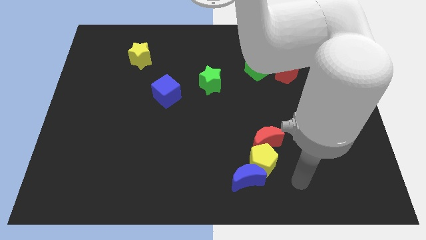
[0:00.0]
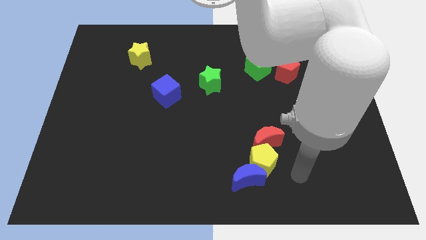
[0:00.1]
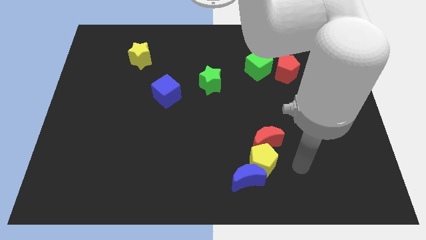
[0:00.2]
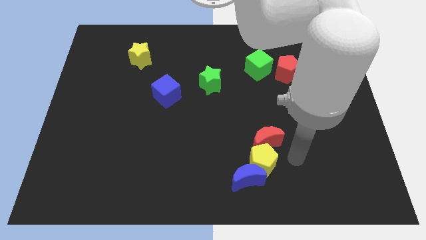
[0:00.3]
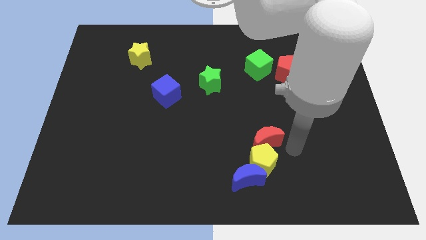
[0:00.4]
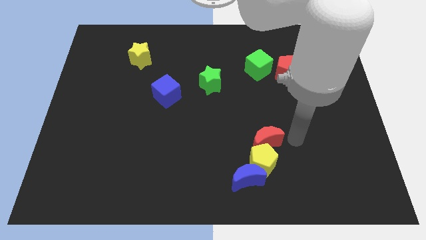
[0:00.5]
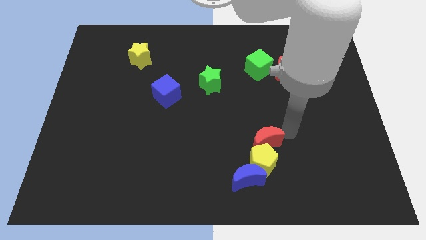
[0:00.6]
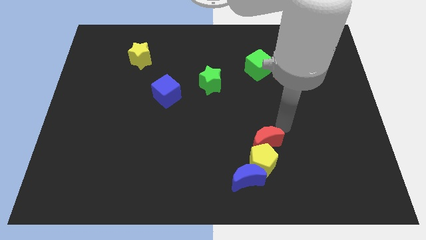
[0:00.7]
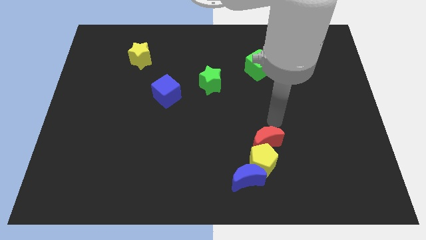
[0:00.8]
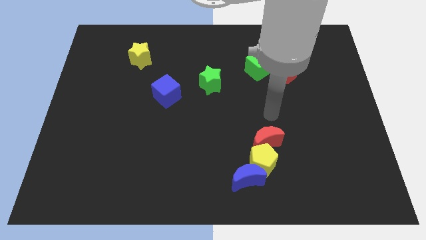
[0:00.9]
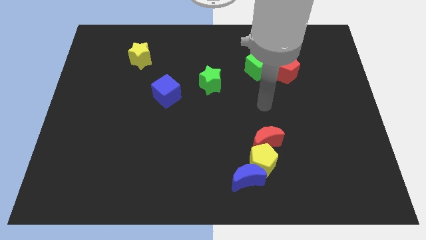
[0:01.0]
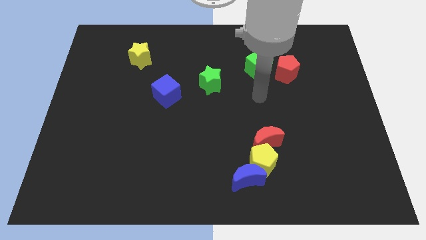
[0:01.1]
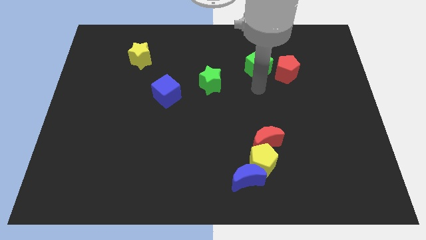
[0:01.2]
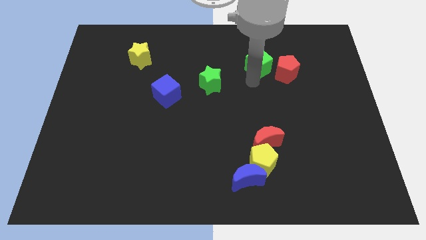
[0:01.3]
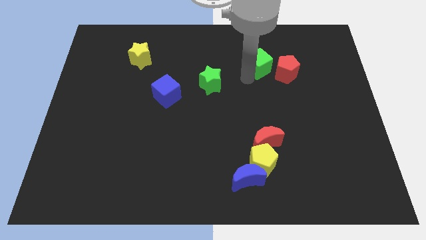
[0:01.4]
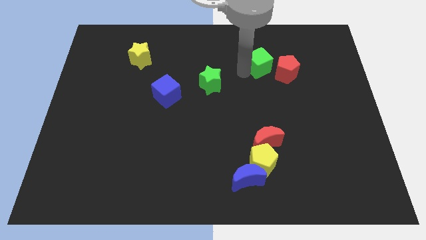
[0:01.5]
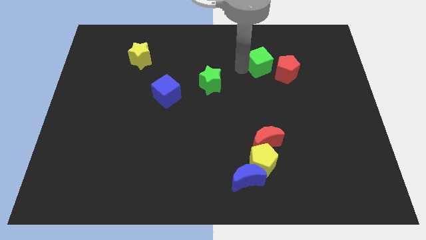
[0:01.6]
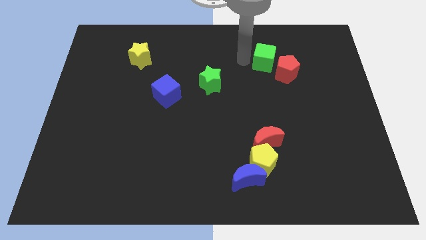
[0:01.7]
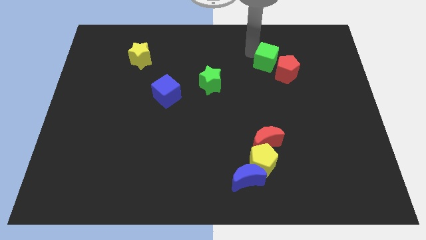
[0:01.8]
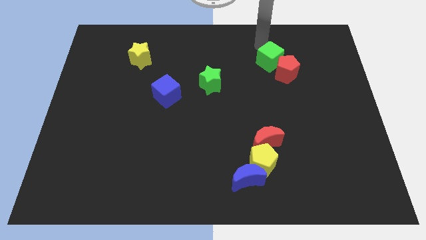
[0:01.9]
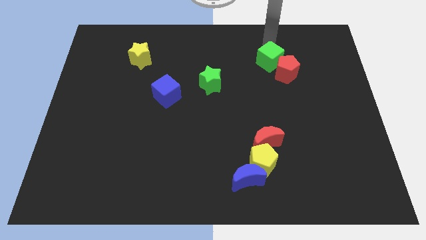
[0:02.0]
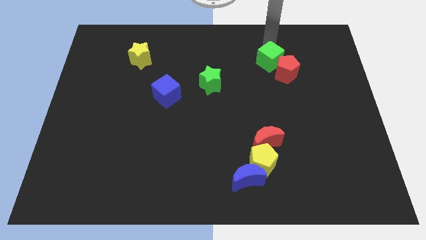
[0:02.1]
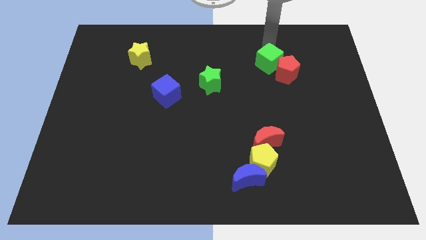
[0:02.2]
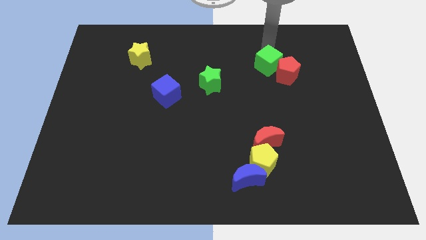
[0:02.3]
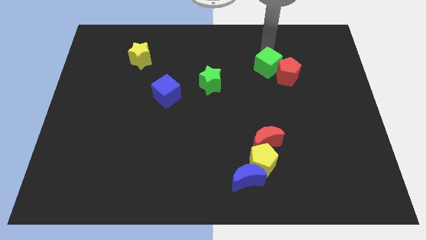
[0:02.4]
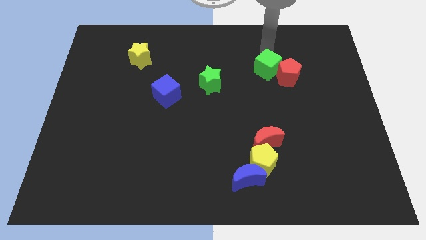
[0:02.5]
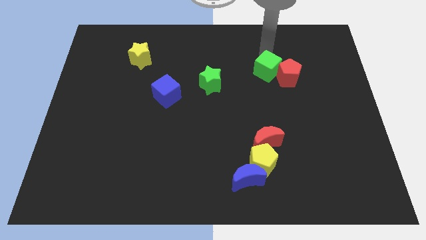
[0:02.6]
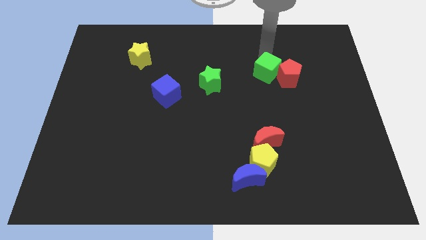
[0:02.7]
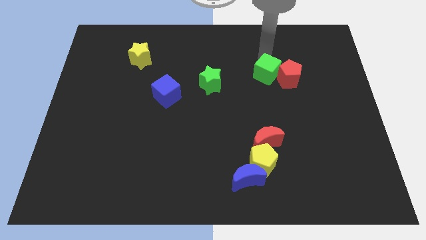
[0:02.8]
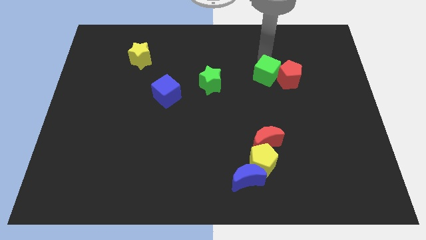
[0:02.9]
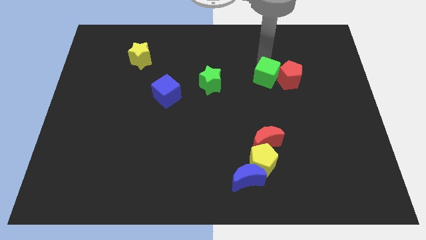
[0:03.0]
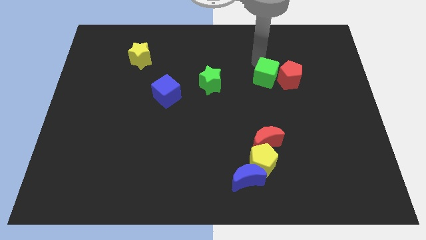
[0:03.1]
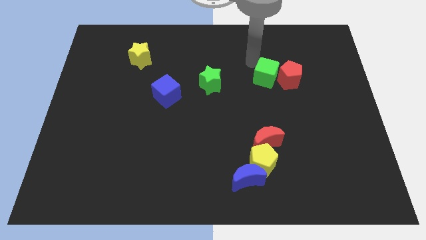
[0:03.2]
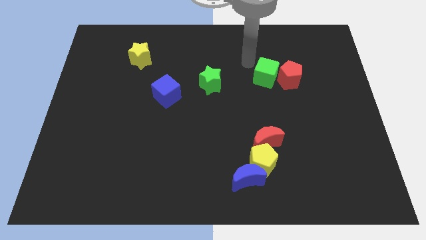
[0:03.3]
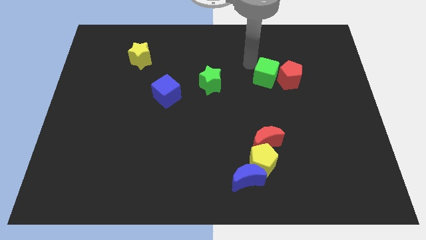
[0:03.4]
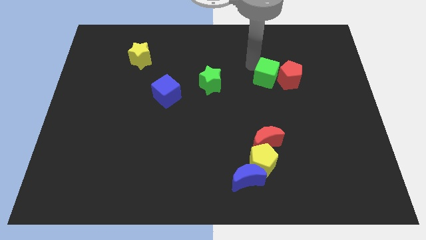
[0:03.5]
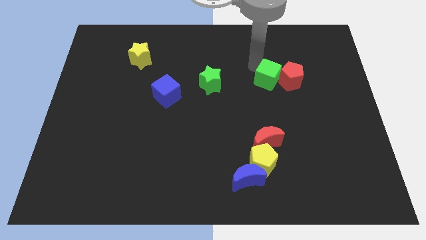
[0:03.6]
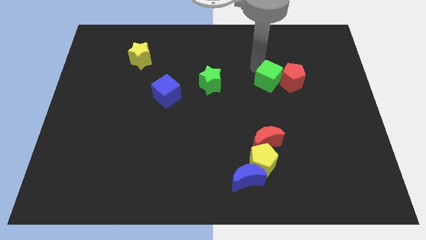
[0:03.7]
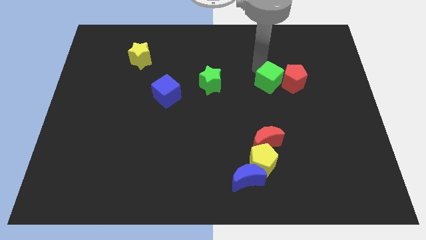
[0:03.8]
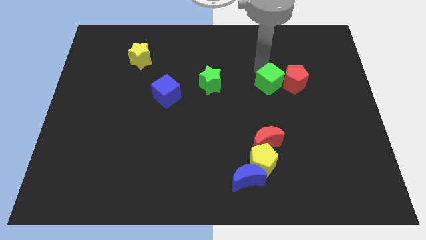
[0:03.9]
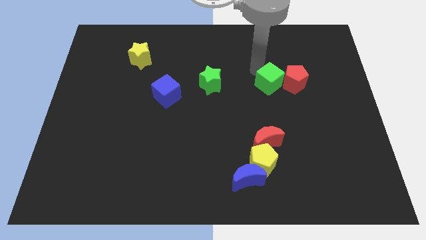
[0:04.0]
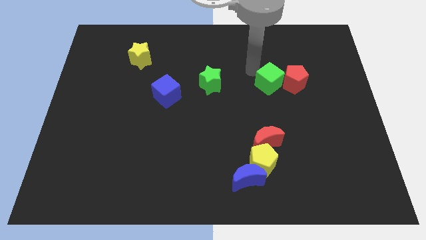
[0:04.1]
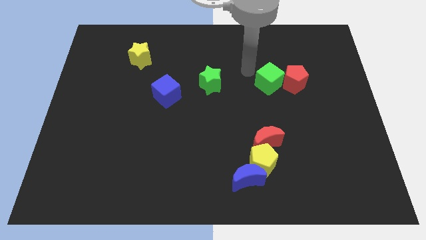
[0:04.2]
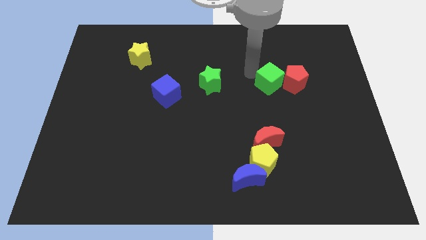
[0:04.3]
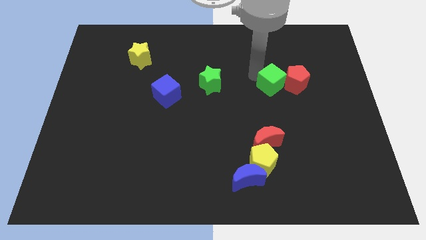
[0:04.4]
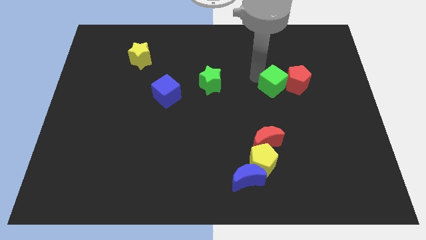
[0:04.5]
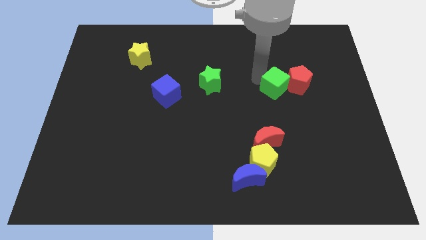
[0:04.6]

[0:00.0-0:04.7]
slightly move the green cube downwards and then right

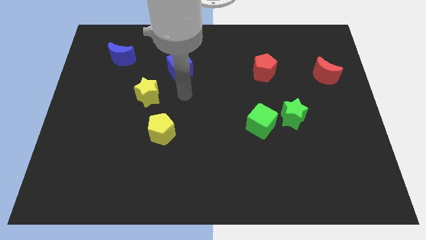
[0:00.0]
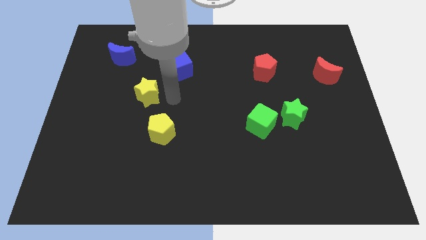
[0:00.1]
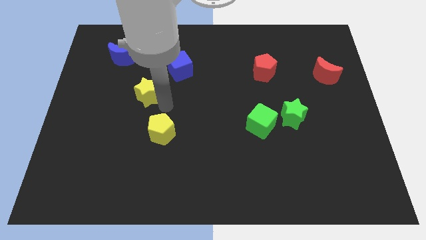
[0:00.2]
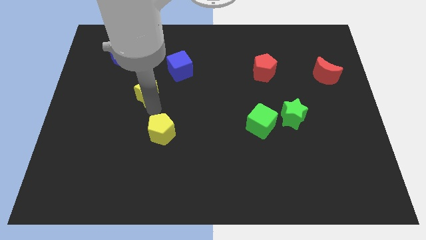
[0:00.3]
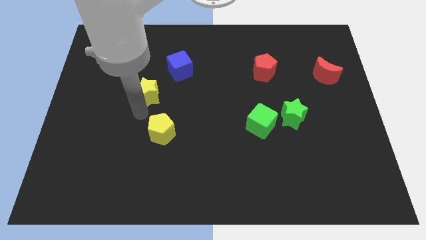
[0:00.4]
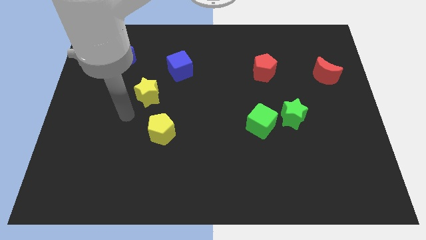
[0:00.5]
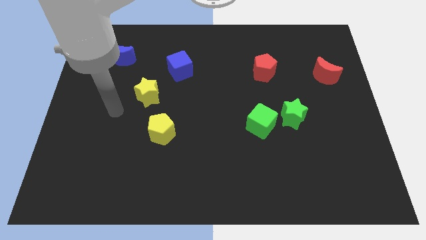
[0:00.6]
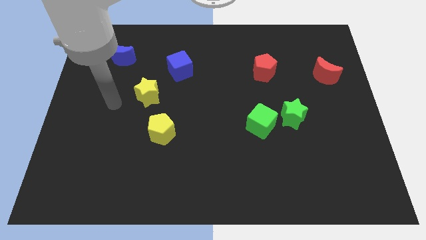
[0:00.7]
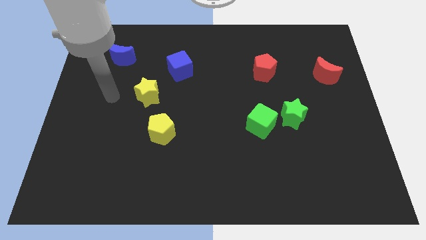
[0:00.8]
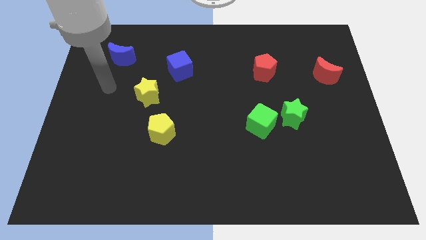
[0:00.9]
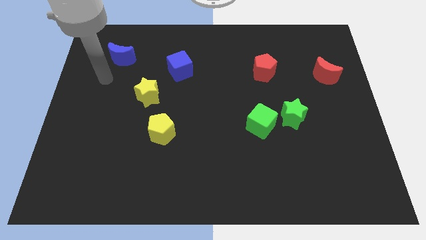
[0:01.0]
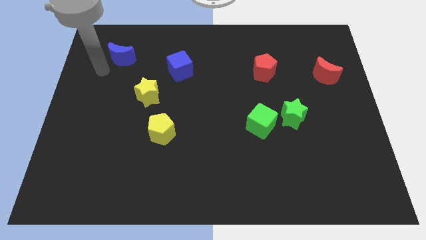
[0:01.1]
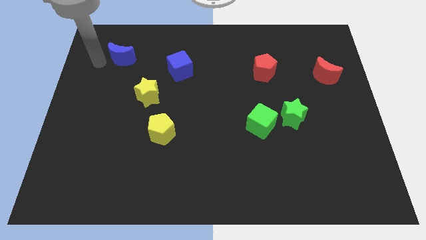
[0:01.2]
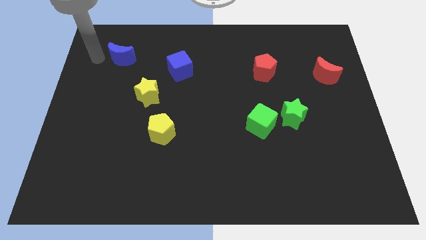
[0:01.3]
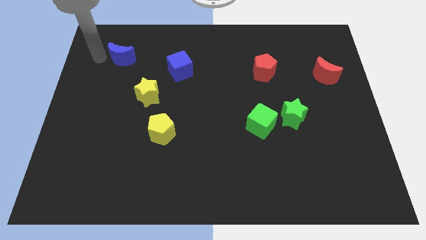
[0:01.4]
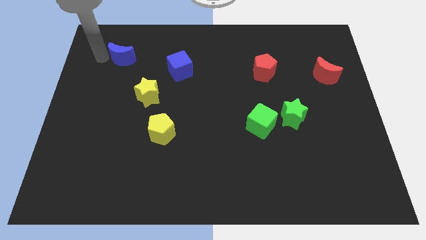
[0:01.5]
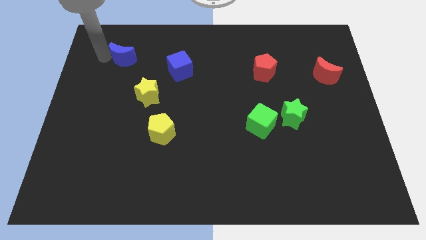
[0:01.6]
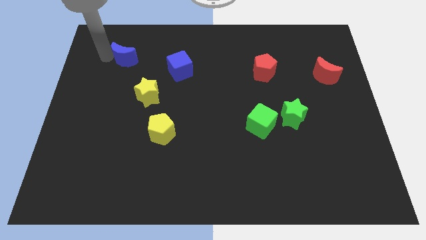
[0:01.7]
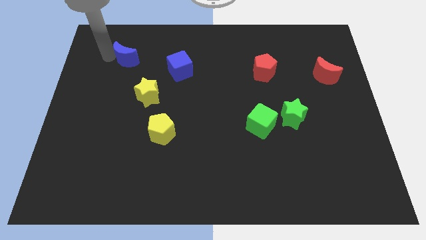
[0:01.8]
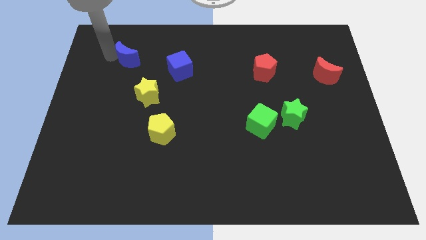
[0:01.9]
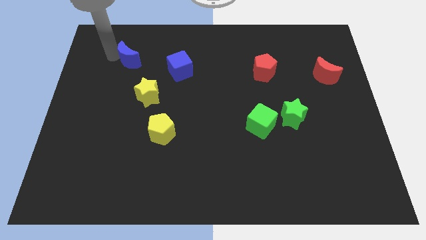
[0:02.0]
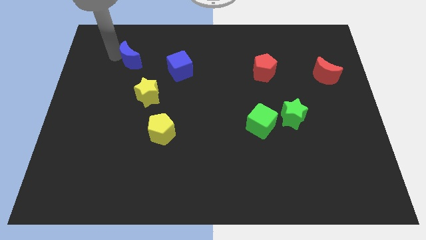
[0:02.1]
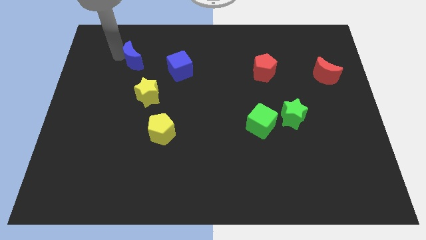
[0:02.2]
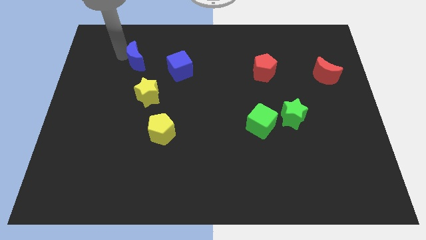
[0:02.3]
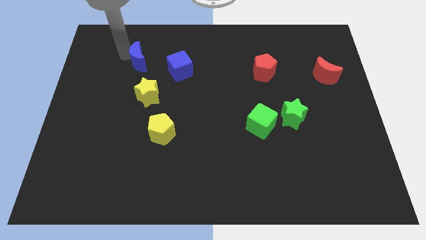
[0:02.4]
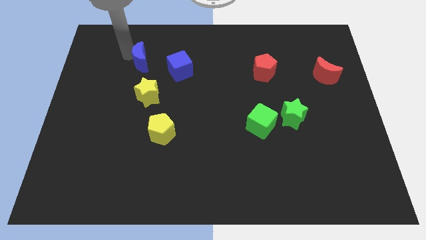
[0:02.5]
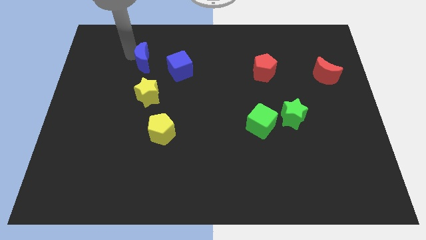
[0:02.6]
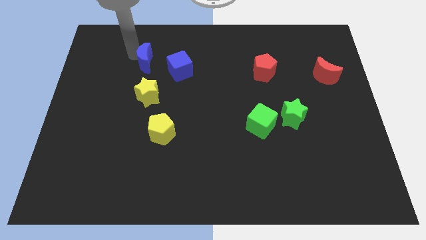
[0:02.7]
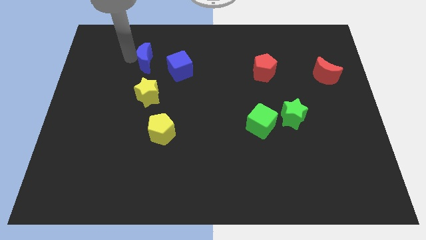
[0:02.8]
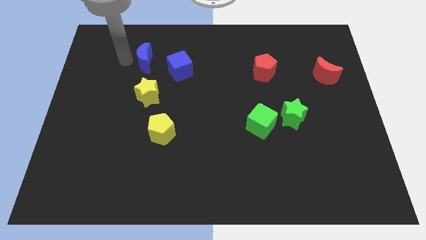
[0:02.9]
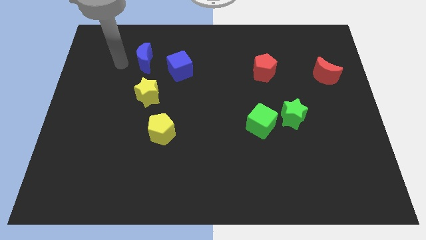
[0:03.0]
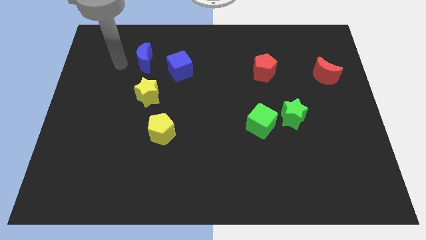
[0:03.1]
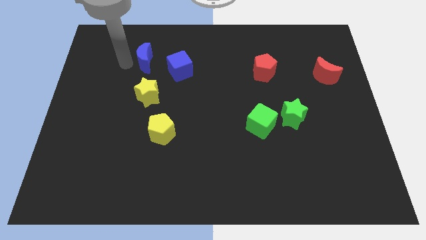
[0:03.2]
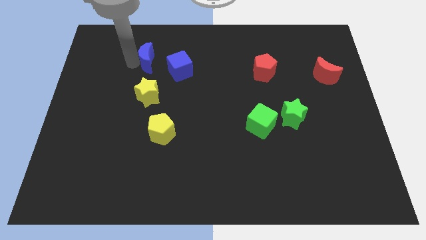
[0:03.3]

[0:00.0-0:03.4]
push the blue moon right a little bit

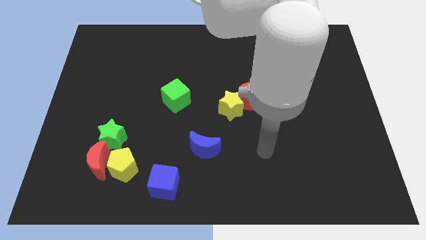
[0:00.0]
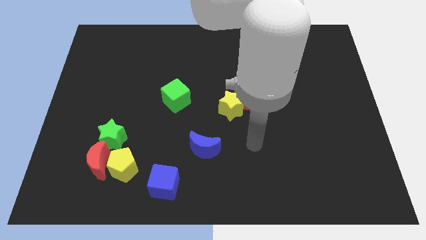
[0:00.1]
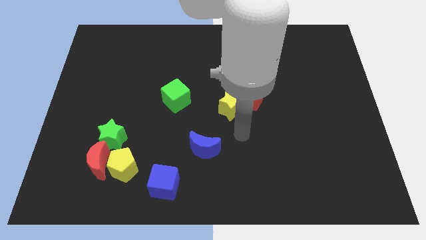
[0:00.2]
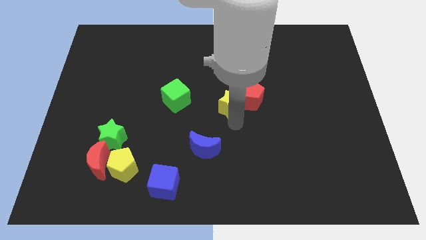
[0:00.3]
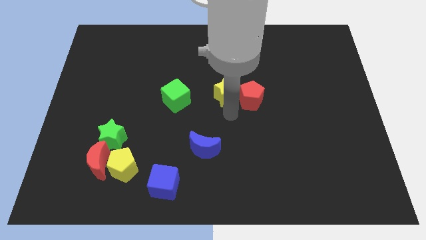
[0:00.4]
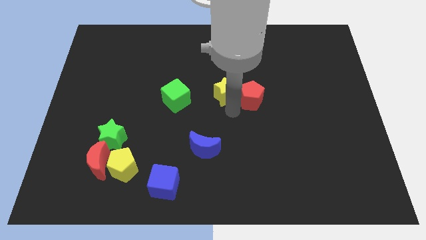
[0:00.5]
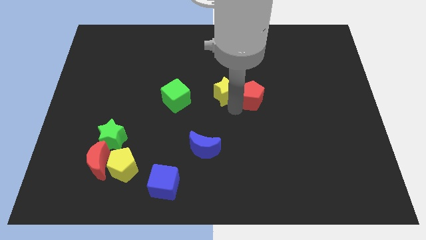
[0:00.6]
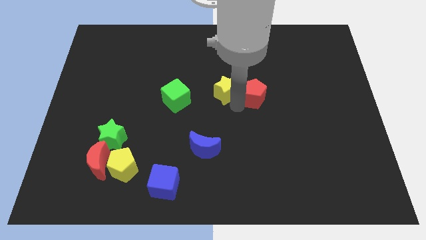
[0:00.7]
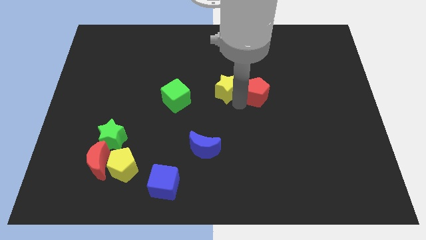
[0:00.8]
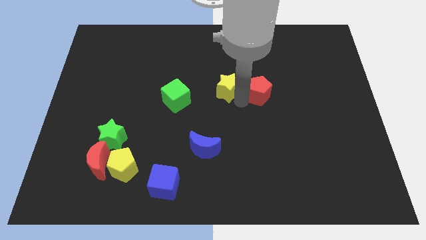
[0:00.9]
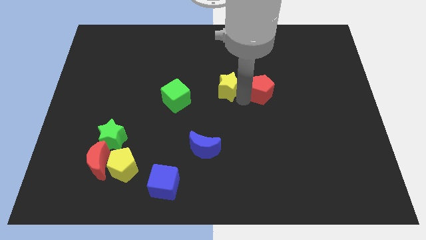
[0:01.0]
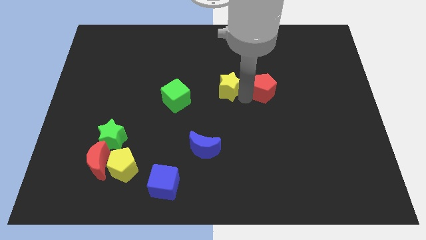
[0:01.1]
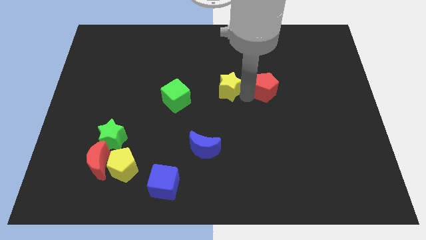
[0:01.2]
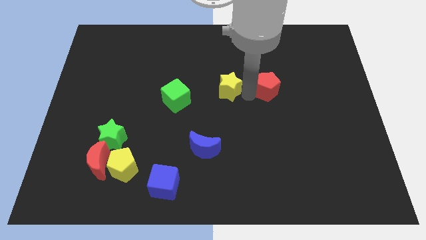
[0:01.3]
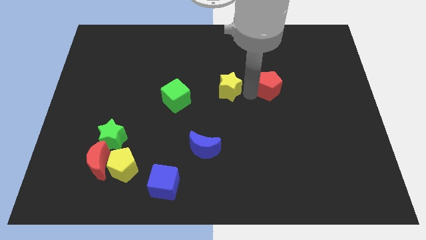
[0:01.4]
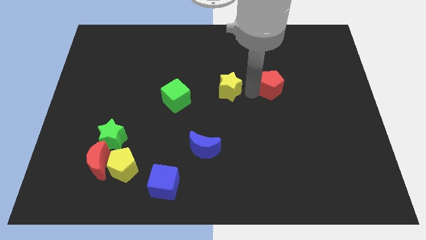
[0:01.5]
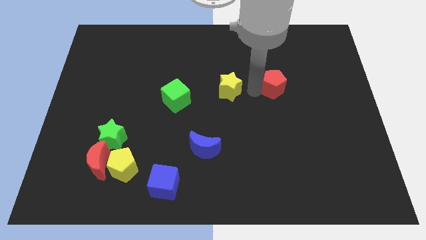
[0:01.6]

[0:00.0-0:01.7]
move the red pentagon a bit upwards and to the right
